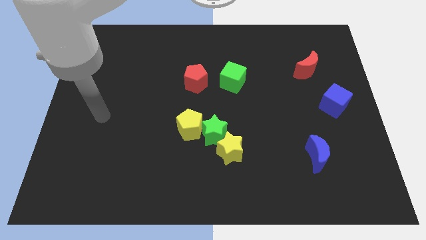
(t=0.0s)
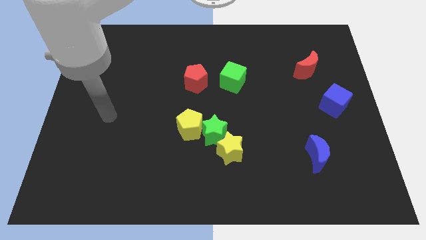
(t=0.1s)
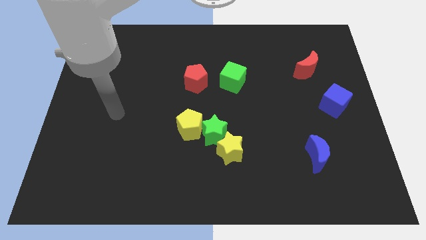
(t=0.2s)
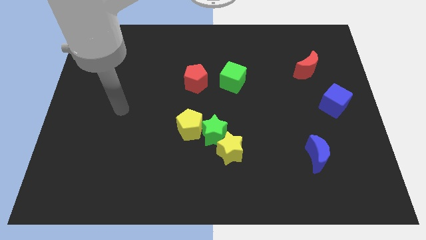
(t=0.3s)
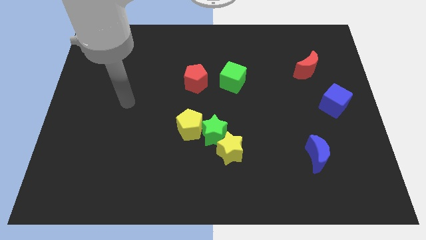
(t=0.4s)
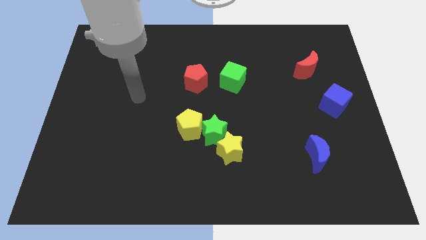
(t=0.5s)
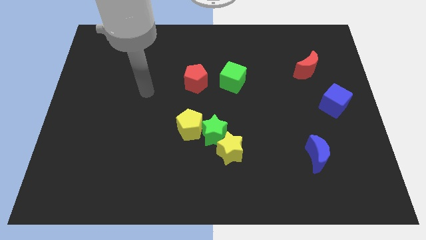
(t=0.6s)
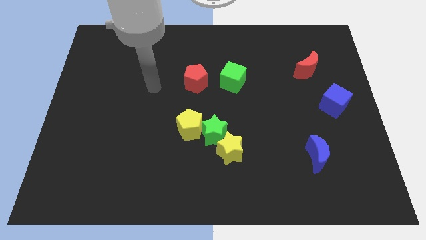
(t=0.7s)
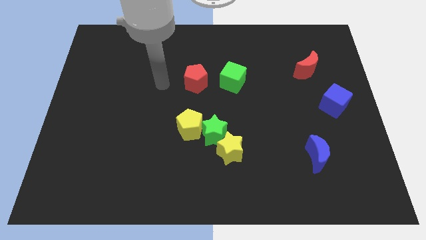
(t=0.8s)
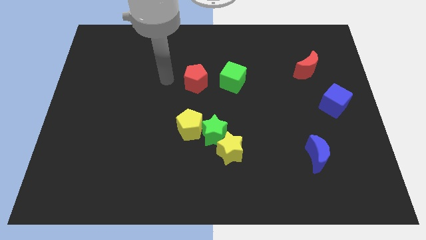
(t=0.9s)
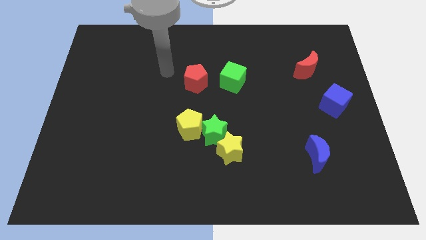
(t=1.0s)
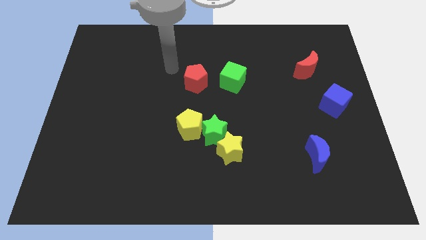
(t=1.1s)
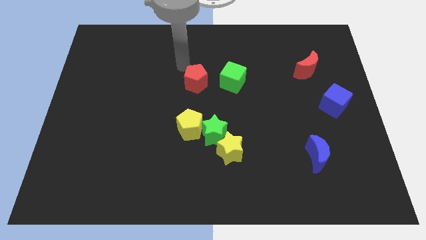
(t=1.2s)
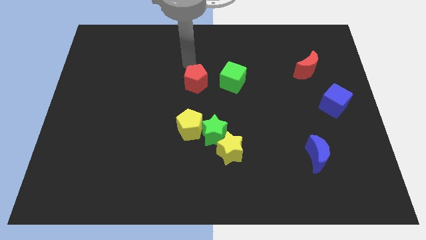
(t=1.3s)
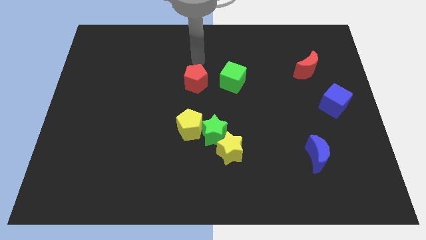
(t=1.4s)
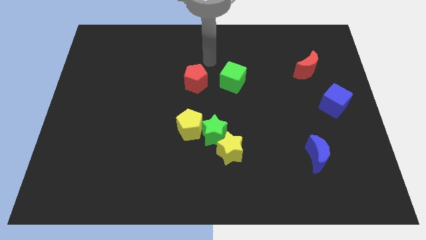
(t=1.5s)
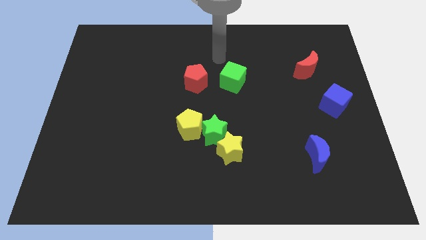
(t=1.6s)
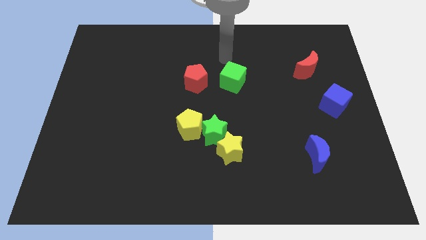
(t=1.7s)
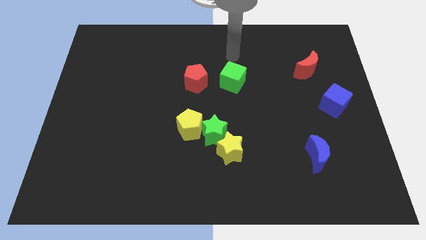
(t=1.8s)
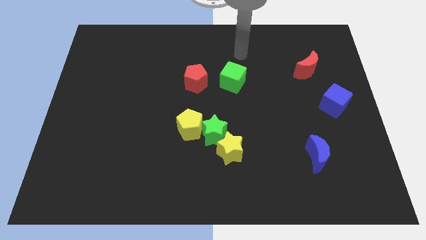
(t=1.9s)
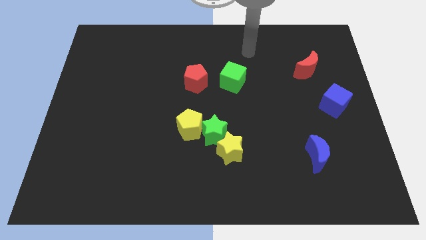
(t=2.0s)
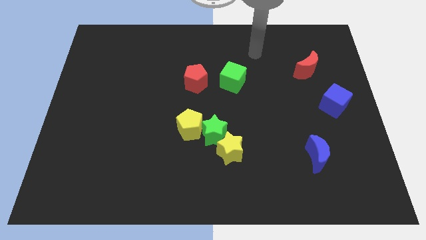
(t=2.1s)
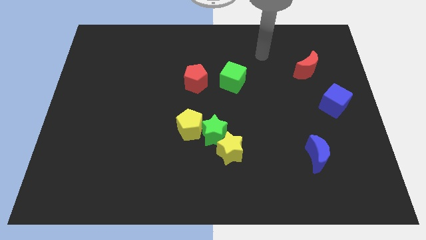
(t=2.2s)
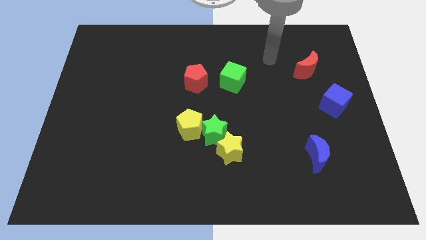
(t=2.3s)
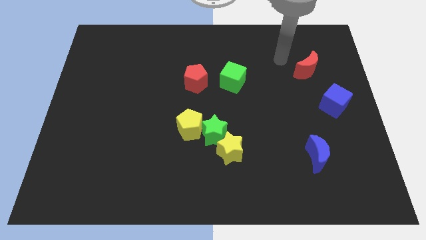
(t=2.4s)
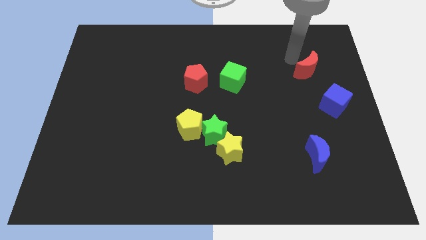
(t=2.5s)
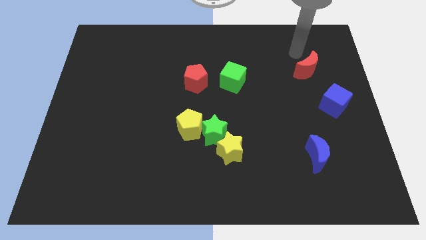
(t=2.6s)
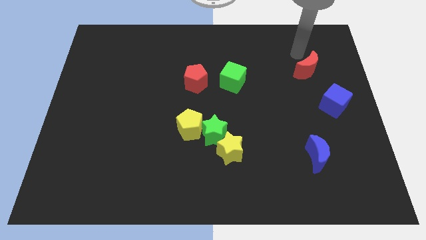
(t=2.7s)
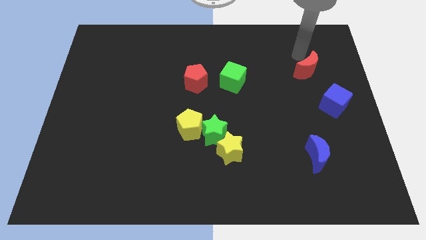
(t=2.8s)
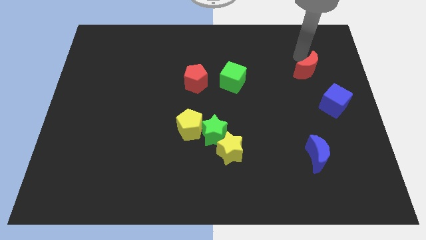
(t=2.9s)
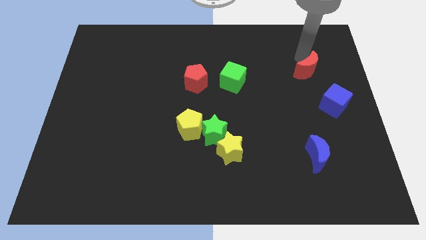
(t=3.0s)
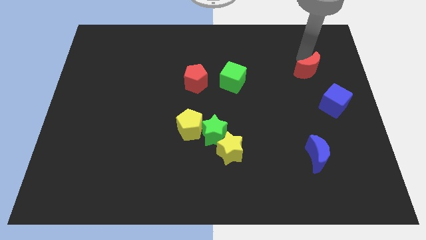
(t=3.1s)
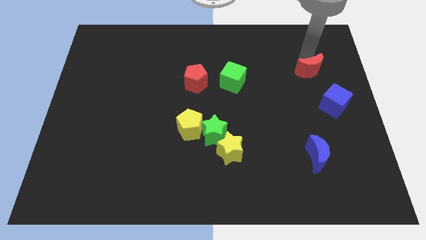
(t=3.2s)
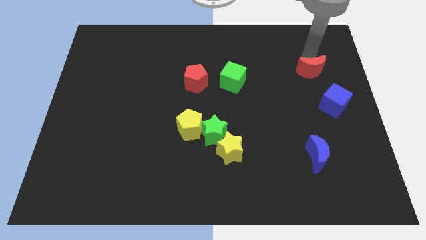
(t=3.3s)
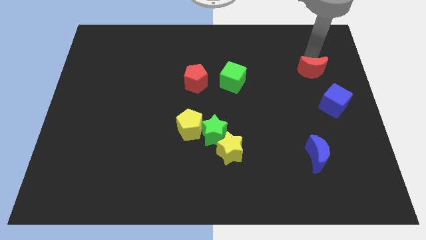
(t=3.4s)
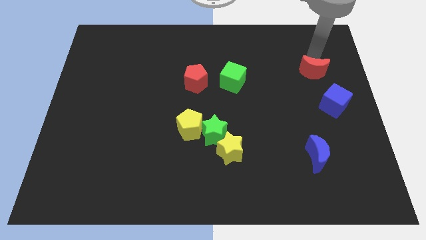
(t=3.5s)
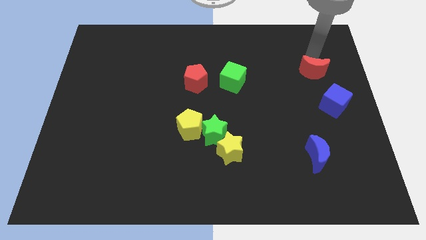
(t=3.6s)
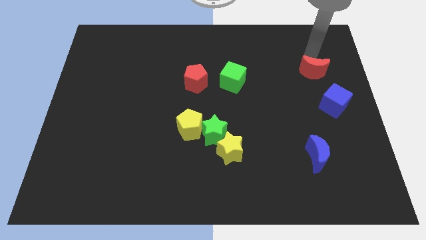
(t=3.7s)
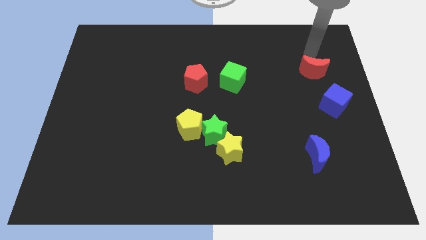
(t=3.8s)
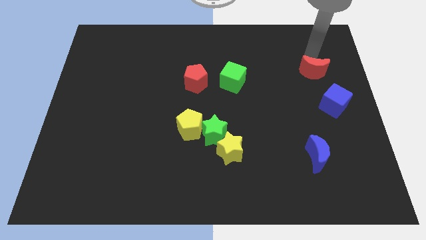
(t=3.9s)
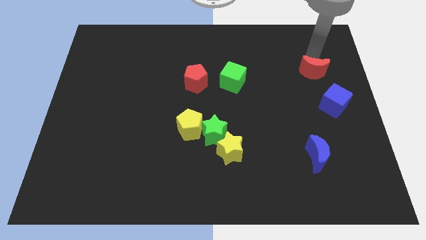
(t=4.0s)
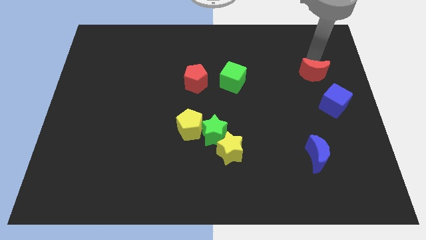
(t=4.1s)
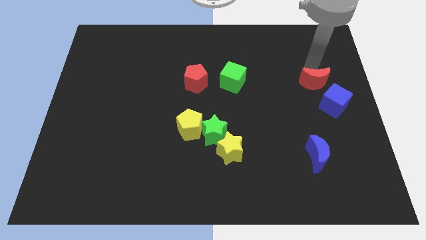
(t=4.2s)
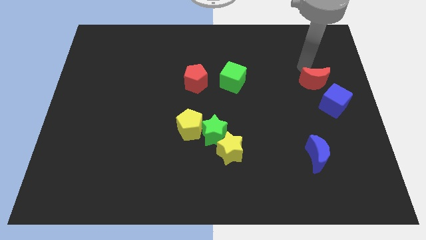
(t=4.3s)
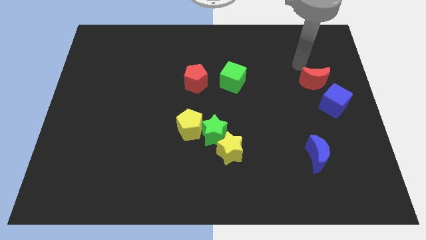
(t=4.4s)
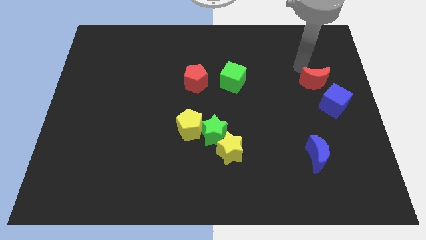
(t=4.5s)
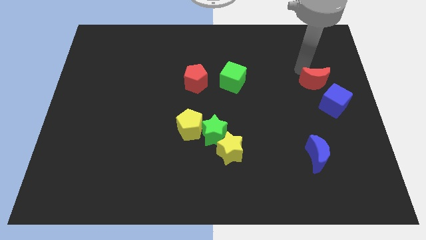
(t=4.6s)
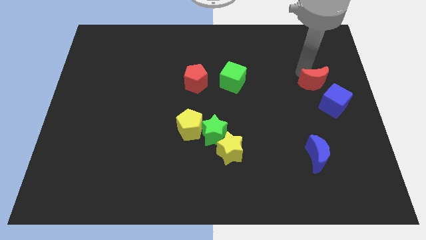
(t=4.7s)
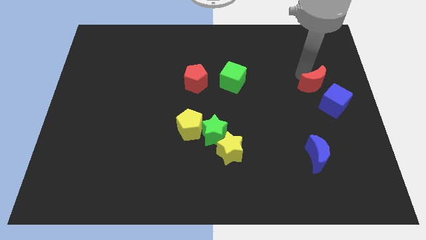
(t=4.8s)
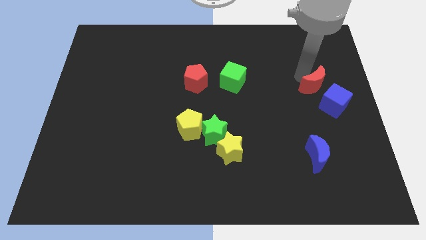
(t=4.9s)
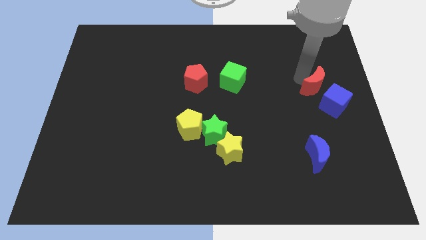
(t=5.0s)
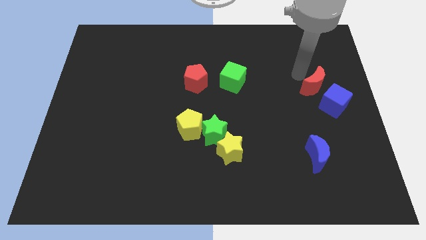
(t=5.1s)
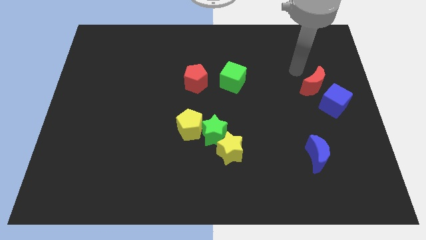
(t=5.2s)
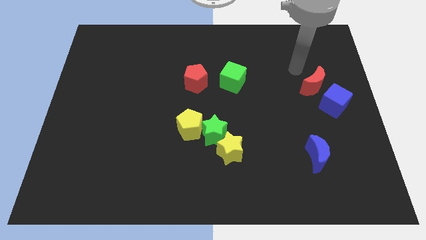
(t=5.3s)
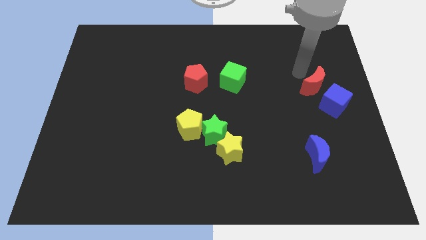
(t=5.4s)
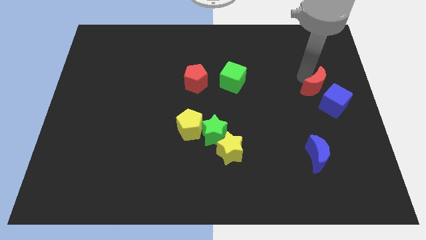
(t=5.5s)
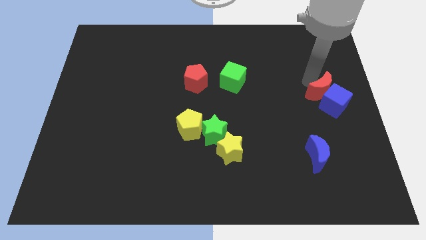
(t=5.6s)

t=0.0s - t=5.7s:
put the red moon towards the blue cube

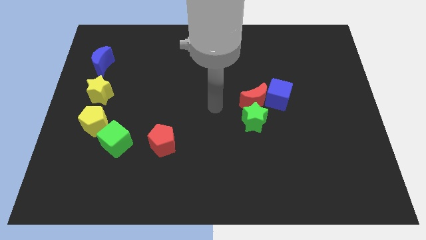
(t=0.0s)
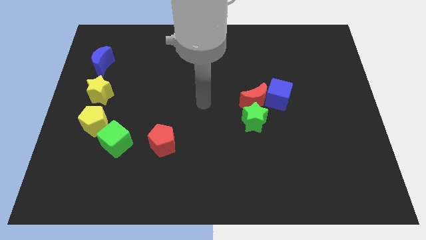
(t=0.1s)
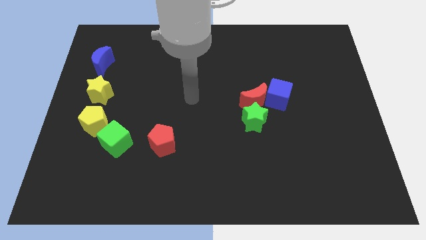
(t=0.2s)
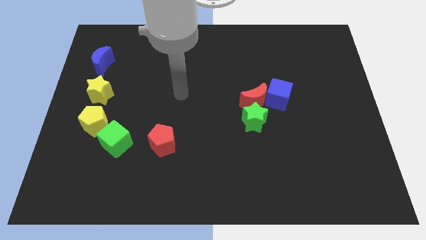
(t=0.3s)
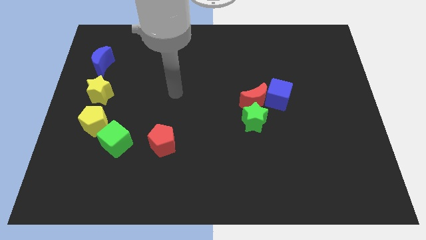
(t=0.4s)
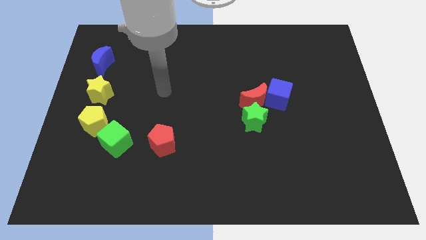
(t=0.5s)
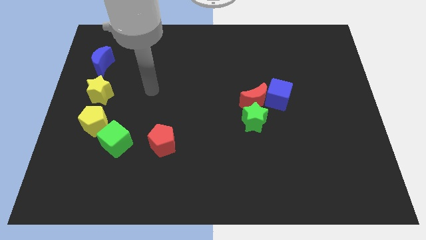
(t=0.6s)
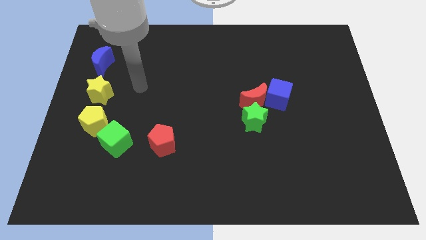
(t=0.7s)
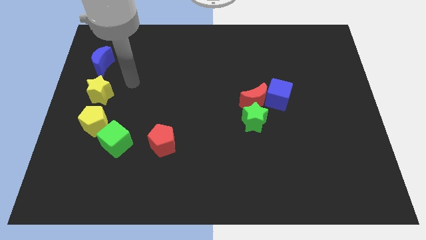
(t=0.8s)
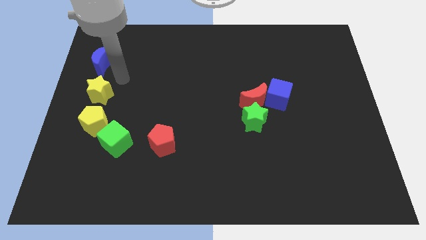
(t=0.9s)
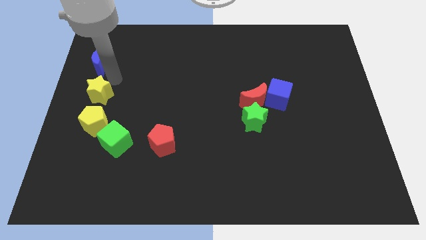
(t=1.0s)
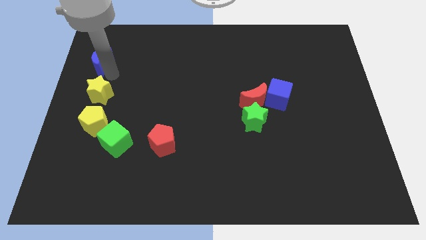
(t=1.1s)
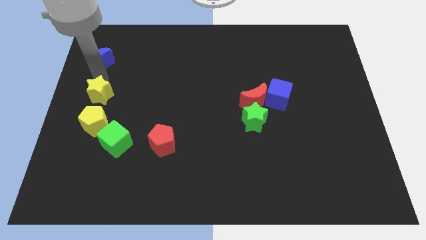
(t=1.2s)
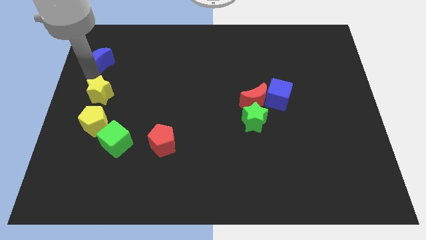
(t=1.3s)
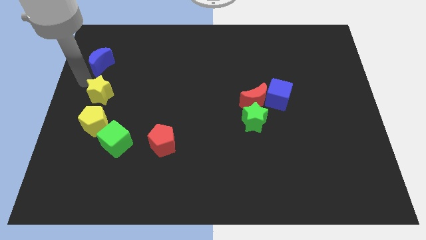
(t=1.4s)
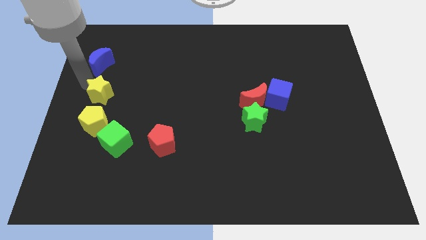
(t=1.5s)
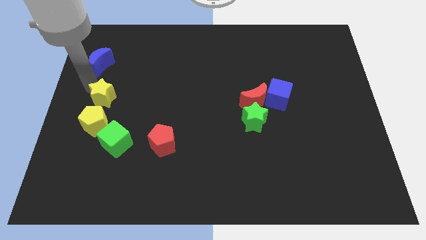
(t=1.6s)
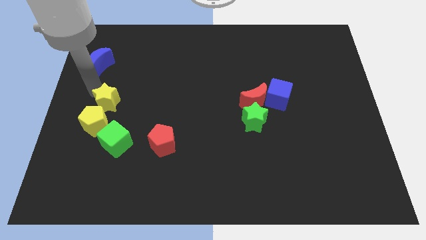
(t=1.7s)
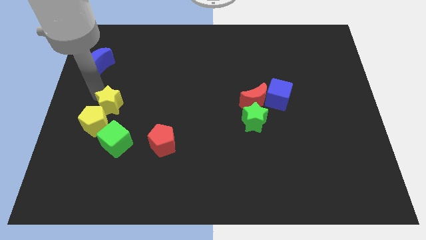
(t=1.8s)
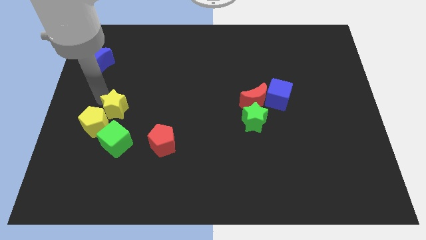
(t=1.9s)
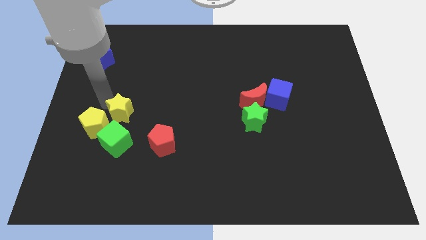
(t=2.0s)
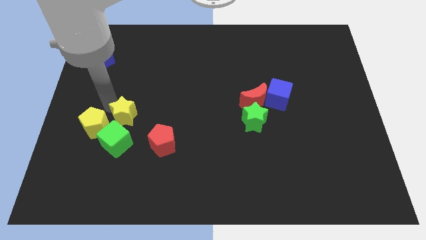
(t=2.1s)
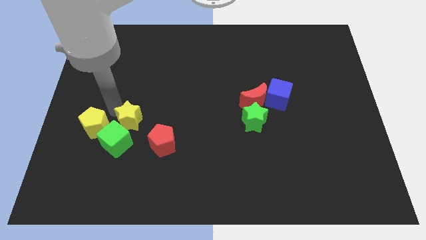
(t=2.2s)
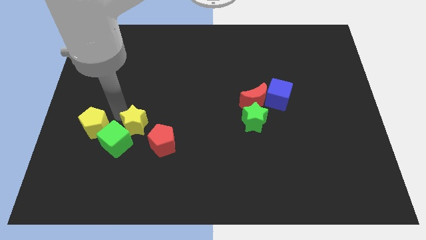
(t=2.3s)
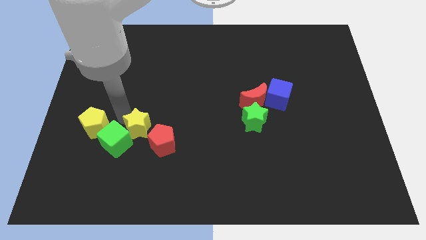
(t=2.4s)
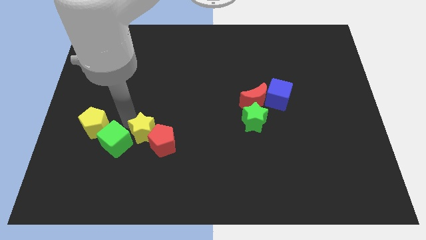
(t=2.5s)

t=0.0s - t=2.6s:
put the yellow star next to the red pentagon
